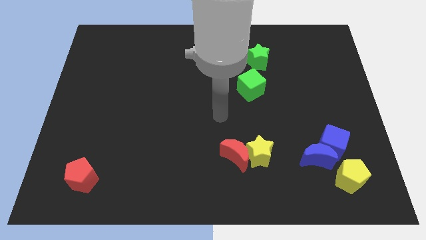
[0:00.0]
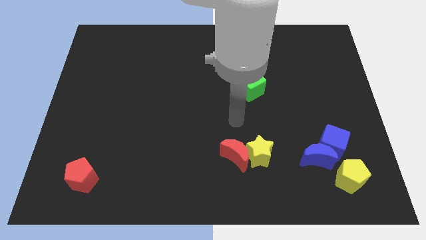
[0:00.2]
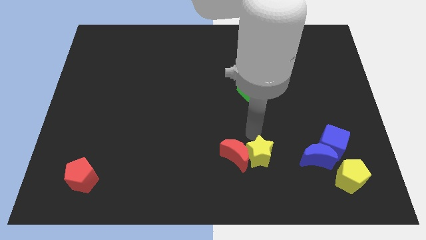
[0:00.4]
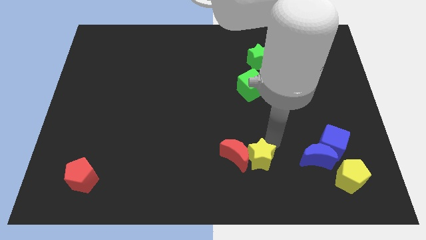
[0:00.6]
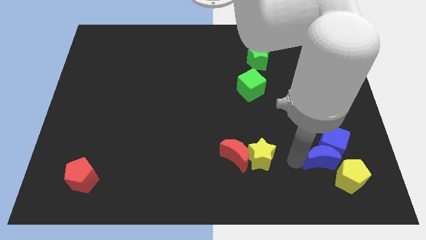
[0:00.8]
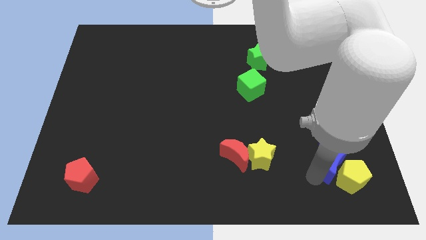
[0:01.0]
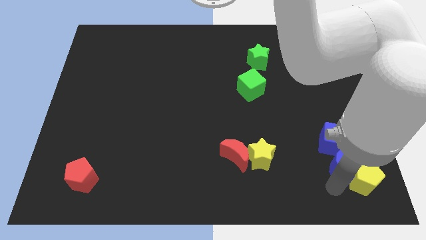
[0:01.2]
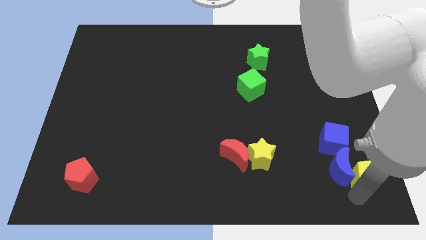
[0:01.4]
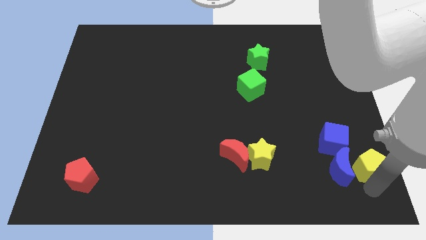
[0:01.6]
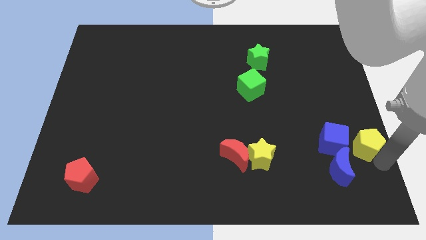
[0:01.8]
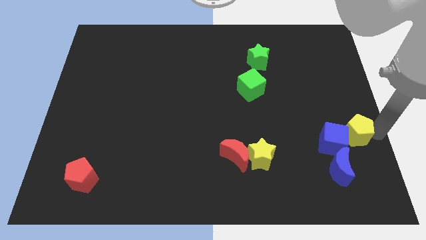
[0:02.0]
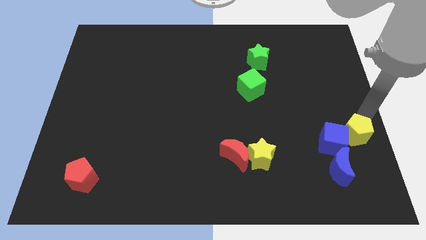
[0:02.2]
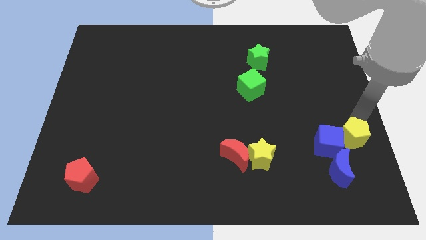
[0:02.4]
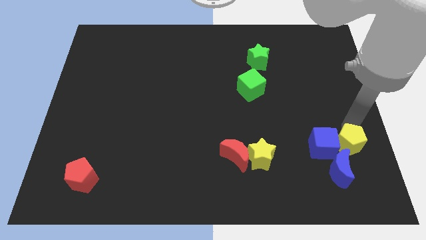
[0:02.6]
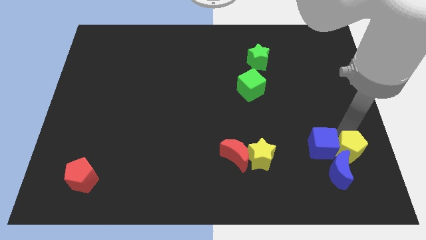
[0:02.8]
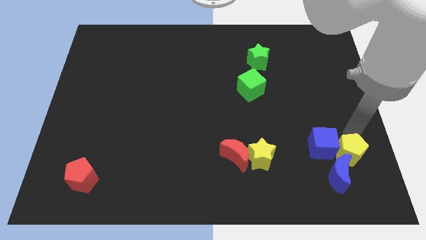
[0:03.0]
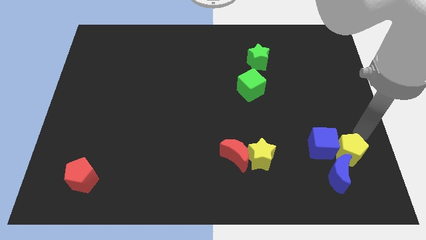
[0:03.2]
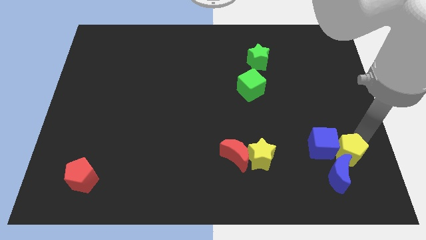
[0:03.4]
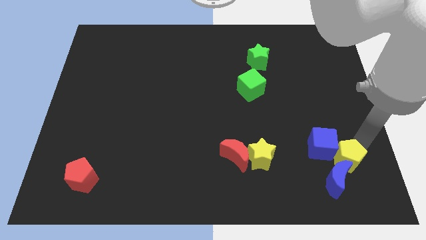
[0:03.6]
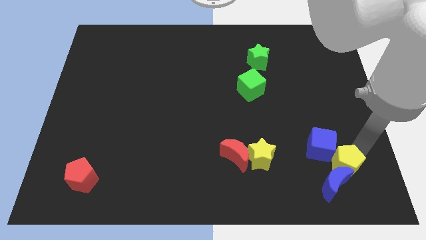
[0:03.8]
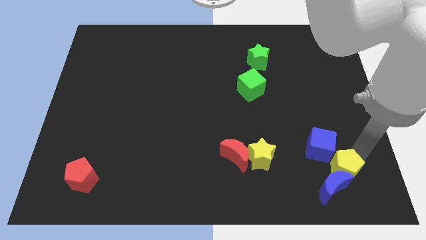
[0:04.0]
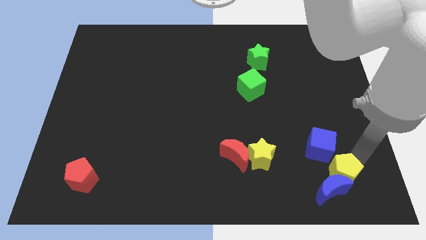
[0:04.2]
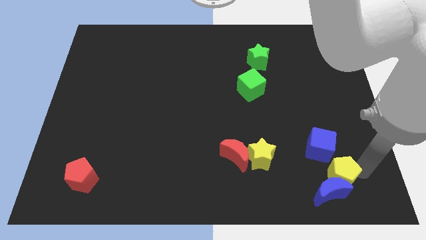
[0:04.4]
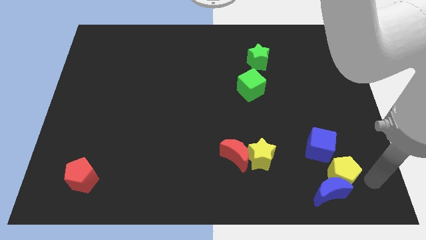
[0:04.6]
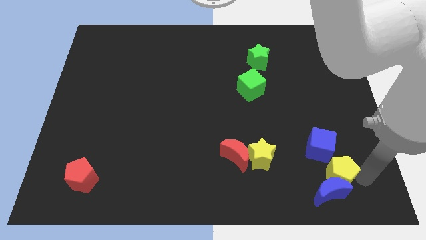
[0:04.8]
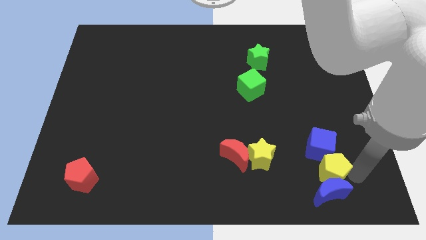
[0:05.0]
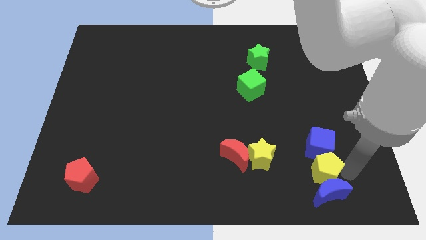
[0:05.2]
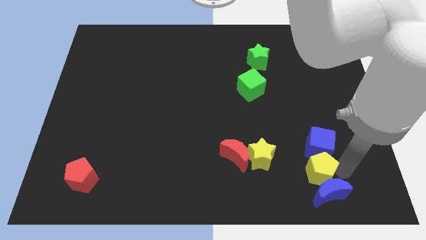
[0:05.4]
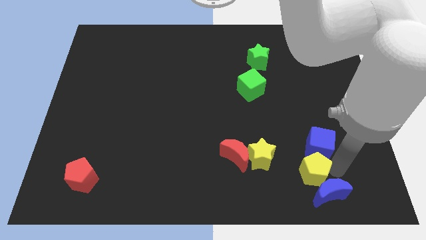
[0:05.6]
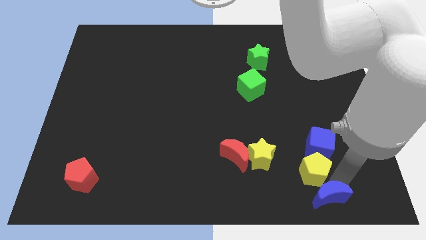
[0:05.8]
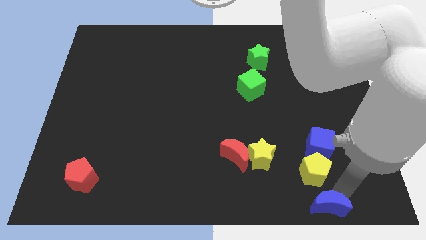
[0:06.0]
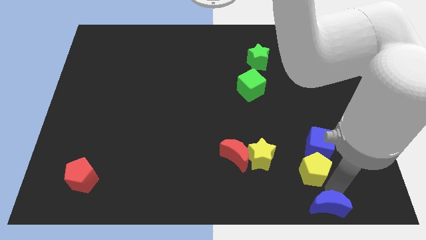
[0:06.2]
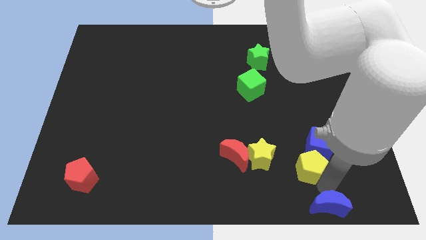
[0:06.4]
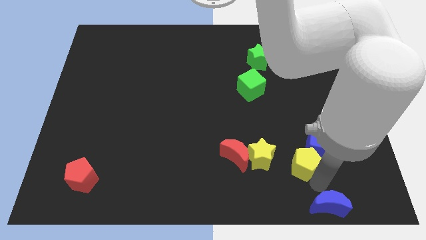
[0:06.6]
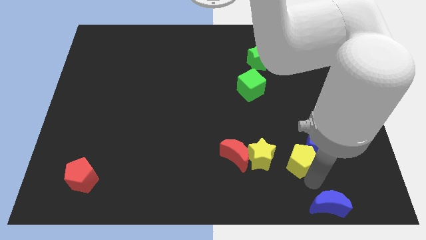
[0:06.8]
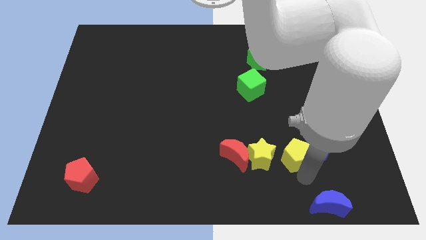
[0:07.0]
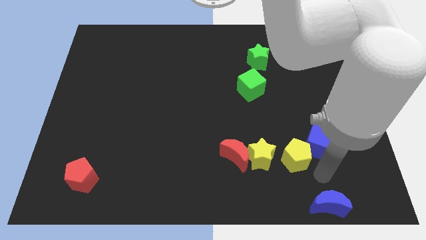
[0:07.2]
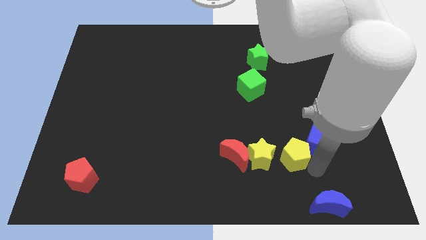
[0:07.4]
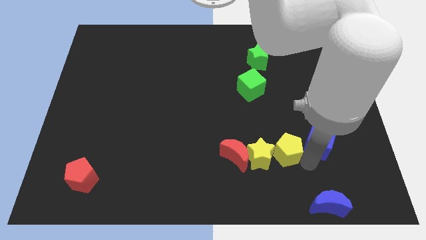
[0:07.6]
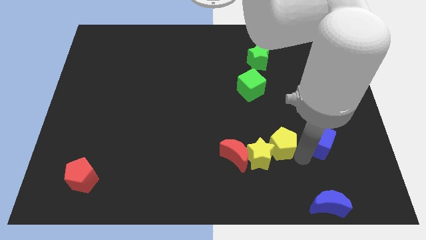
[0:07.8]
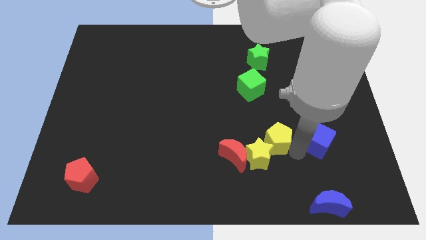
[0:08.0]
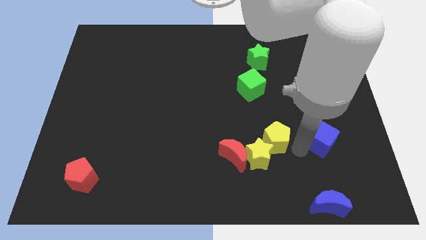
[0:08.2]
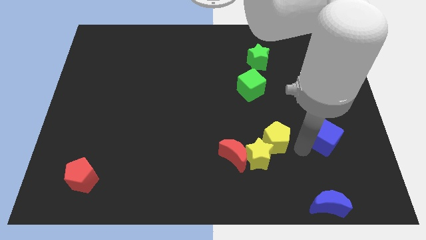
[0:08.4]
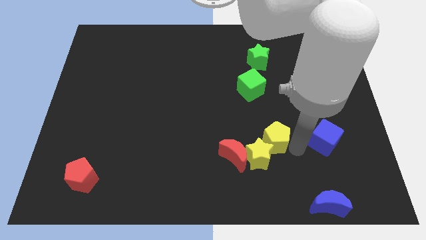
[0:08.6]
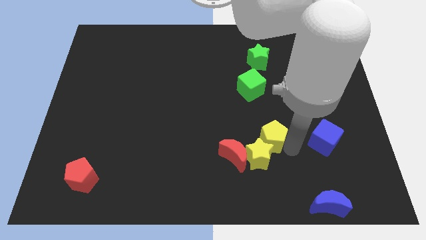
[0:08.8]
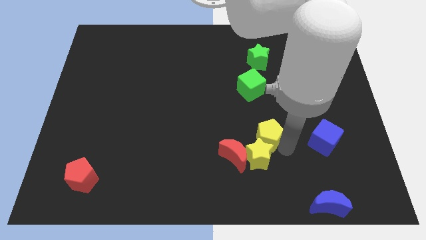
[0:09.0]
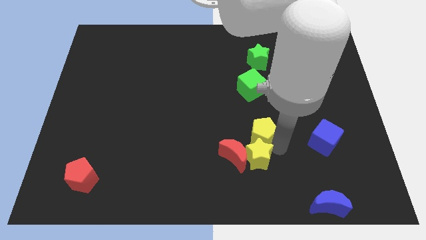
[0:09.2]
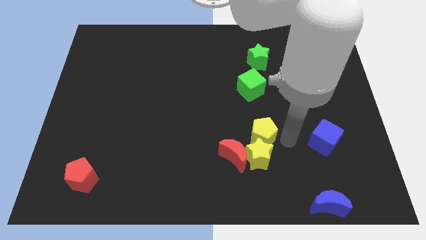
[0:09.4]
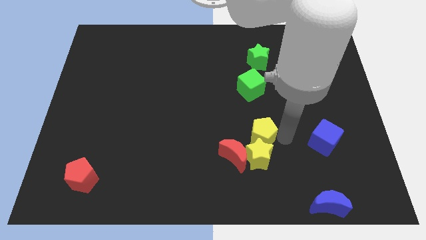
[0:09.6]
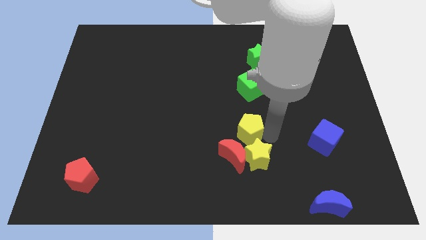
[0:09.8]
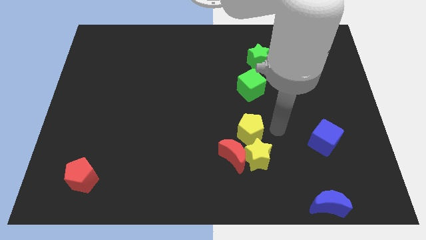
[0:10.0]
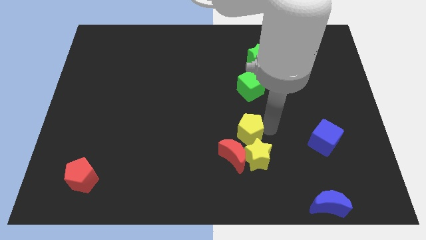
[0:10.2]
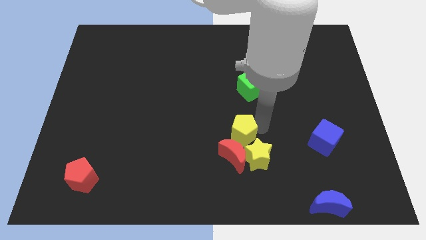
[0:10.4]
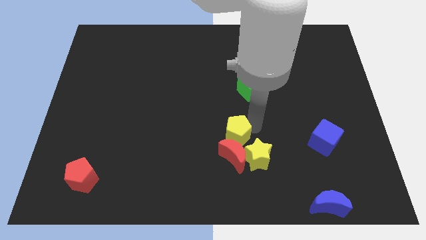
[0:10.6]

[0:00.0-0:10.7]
push the yellow pentagon to the top left of the red moon

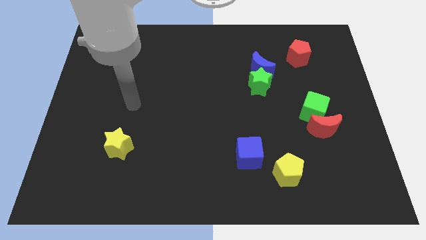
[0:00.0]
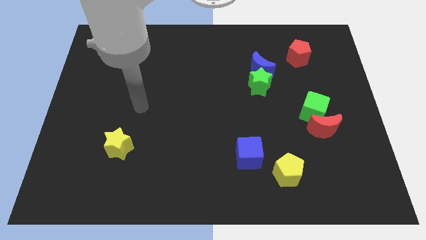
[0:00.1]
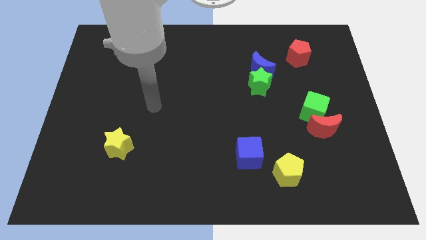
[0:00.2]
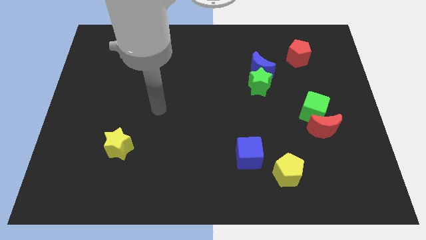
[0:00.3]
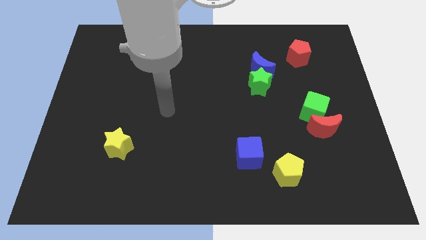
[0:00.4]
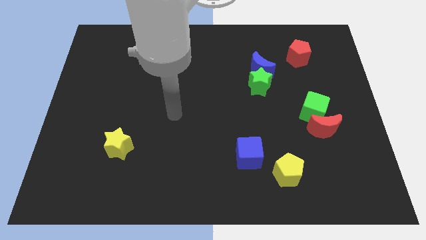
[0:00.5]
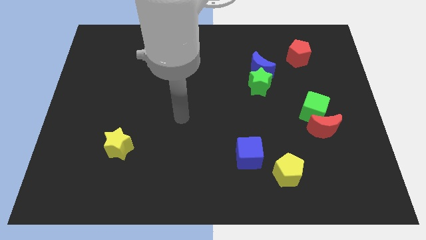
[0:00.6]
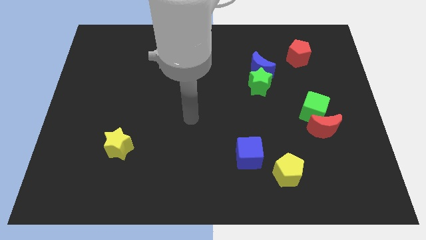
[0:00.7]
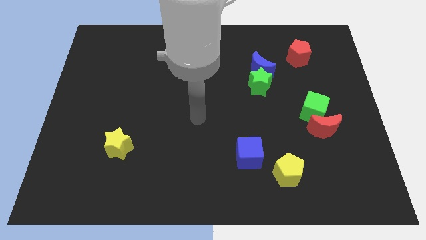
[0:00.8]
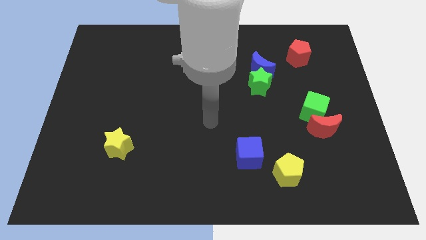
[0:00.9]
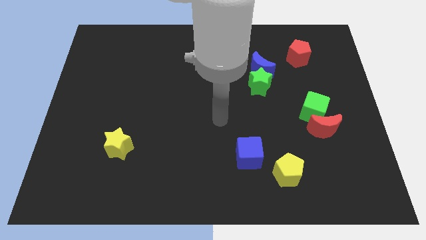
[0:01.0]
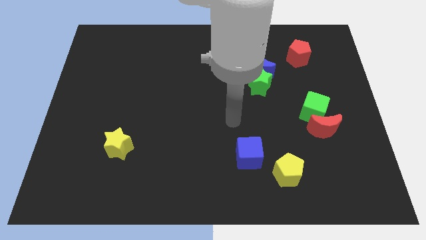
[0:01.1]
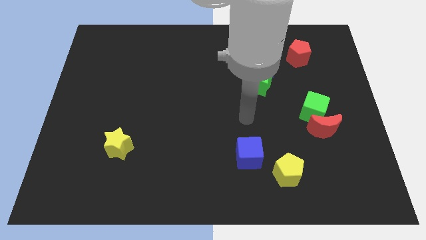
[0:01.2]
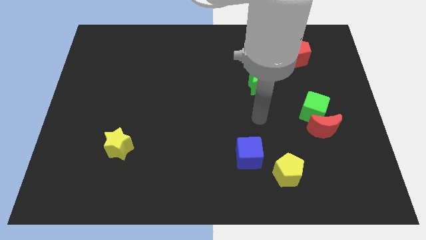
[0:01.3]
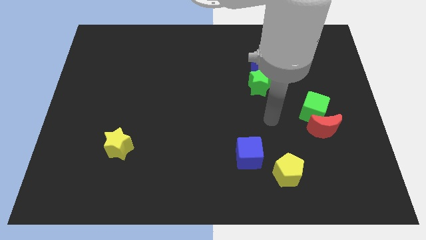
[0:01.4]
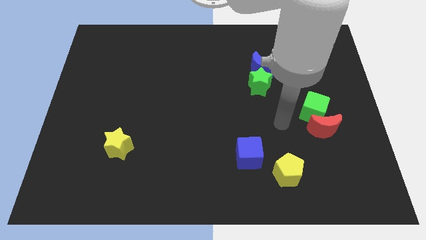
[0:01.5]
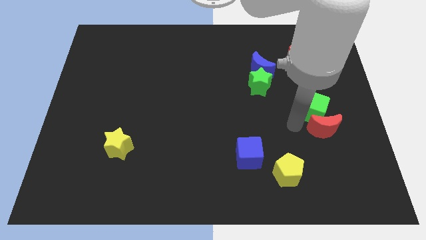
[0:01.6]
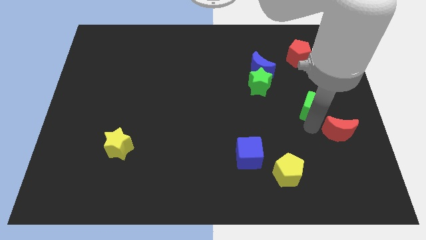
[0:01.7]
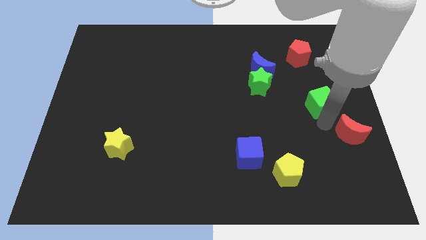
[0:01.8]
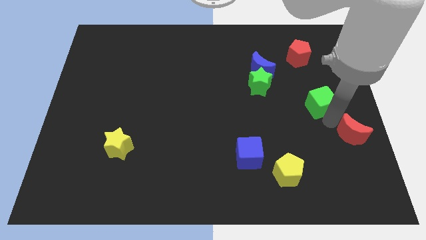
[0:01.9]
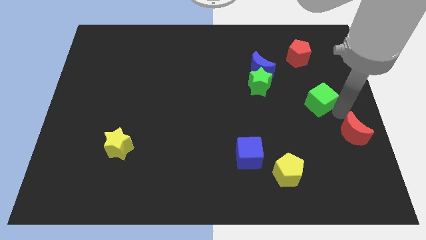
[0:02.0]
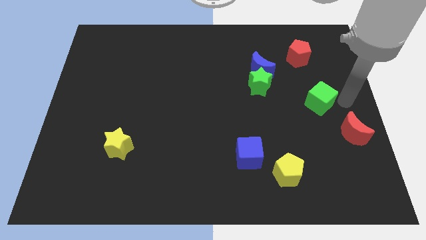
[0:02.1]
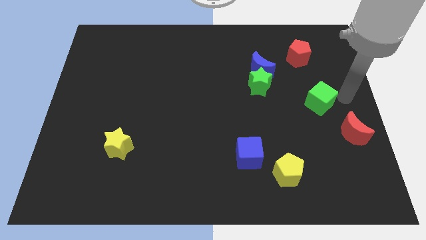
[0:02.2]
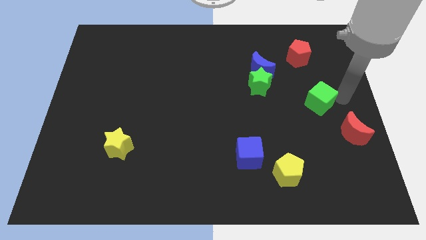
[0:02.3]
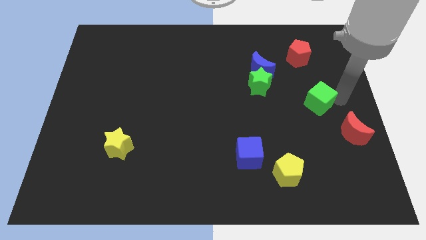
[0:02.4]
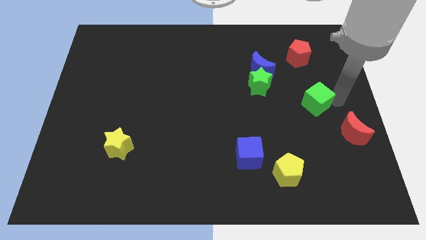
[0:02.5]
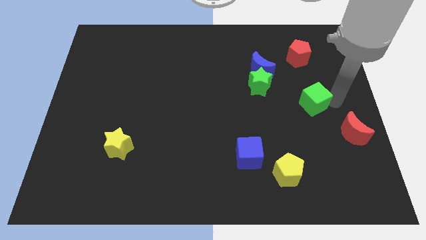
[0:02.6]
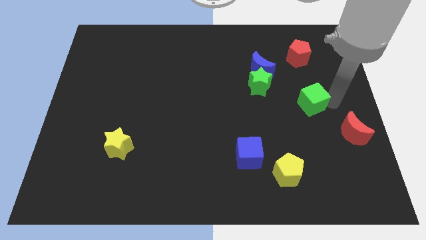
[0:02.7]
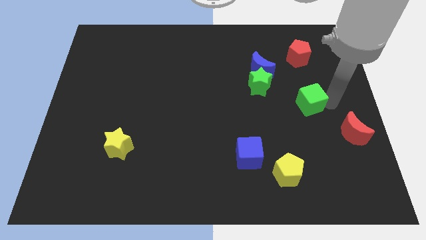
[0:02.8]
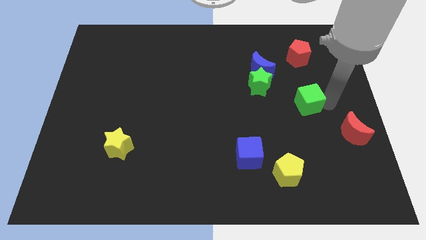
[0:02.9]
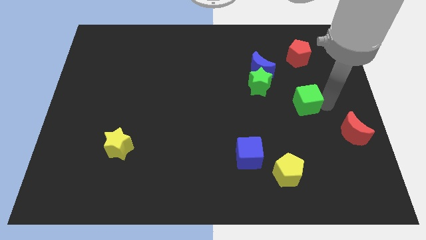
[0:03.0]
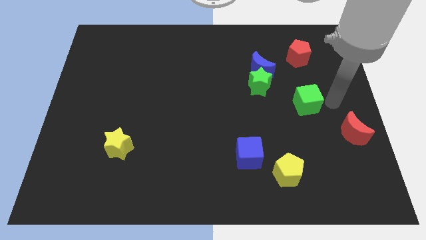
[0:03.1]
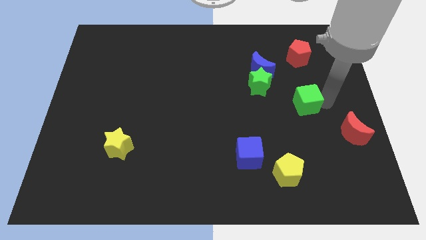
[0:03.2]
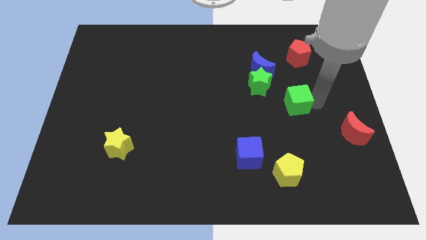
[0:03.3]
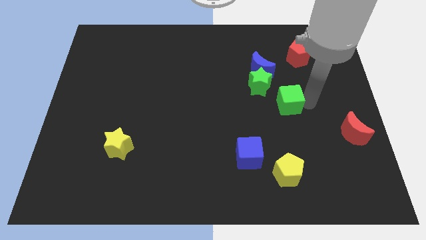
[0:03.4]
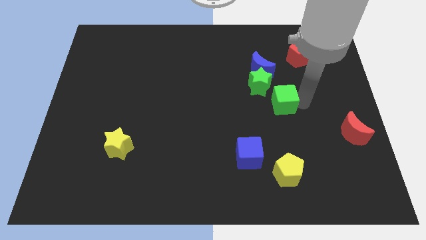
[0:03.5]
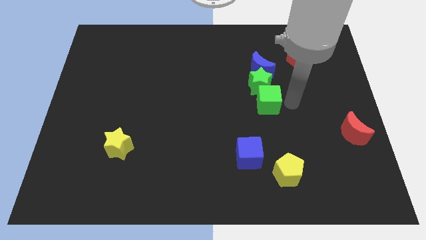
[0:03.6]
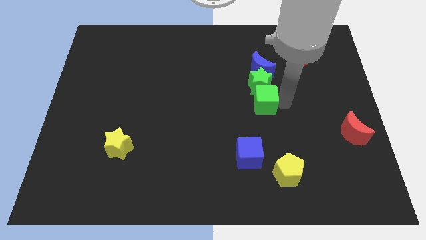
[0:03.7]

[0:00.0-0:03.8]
slide the green cube diagonally down and to the left of the green star
